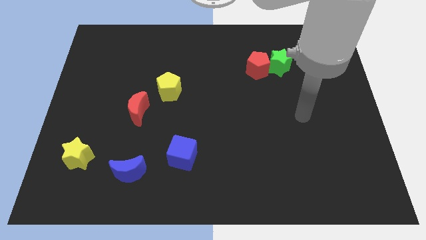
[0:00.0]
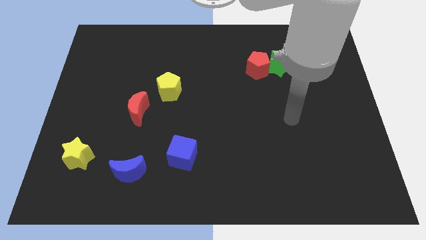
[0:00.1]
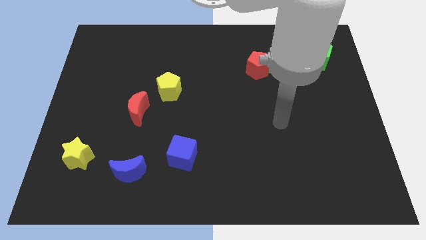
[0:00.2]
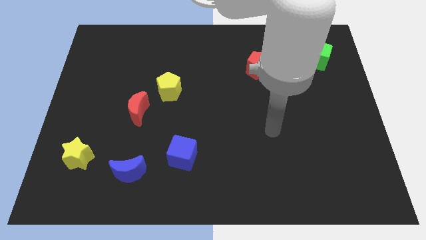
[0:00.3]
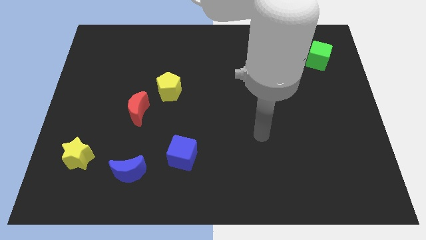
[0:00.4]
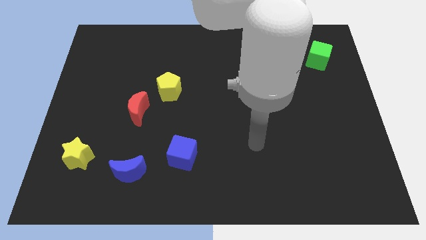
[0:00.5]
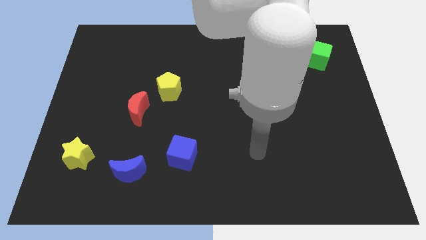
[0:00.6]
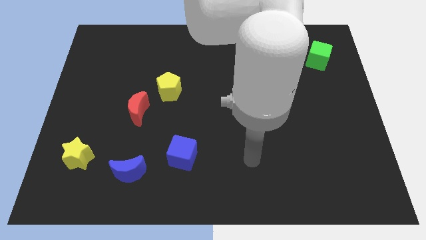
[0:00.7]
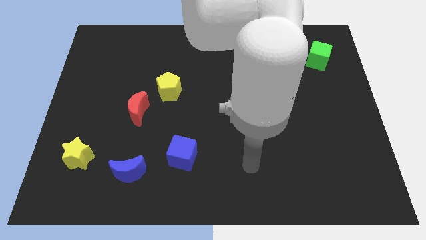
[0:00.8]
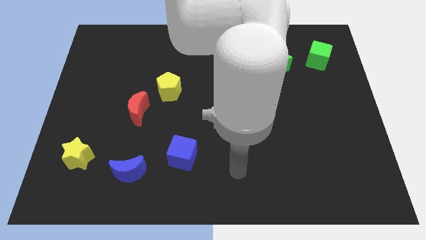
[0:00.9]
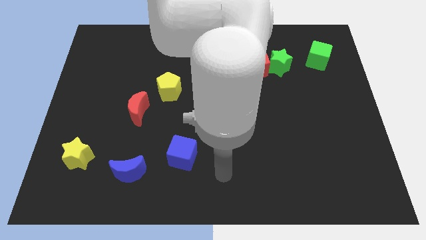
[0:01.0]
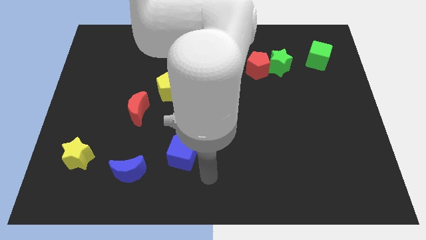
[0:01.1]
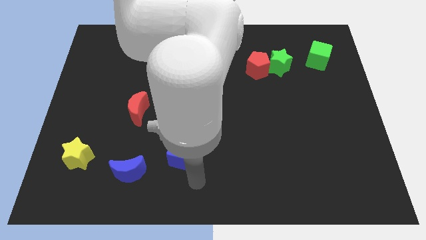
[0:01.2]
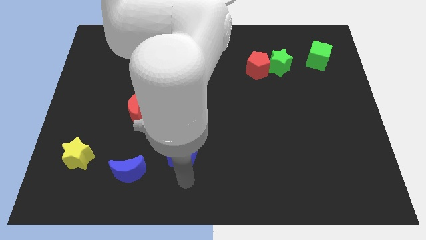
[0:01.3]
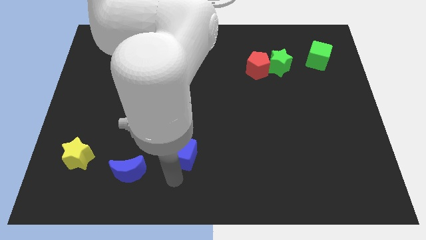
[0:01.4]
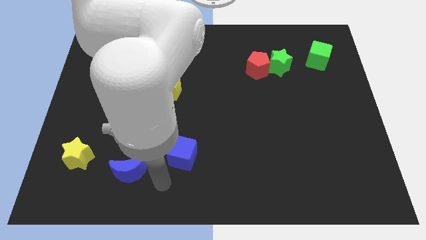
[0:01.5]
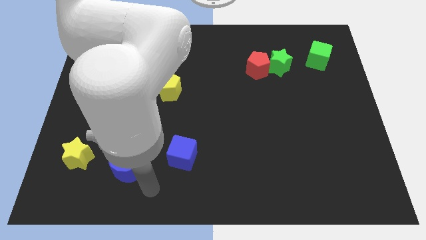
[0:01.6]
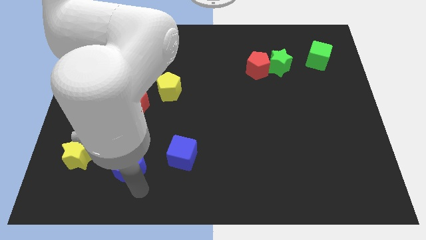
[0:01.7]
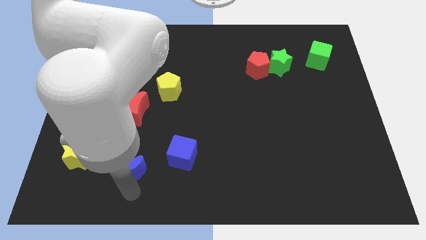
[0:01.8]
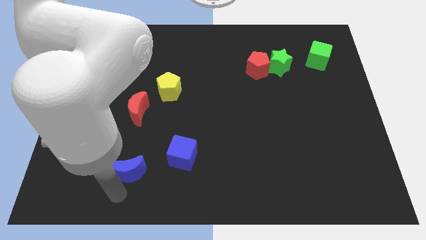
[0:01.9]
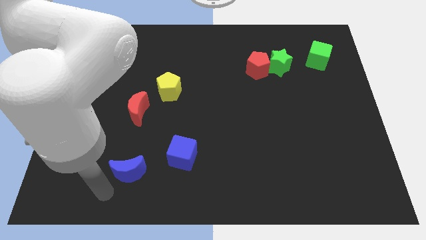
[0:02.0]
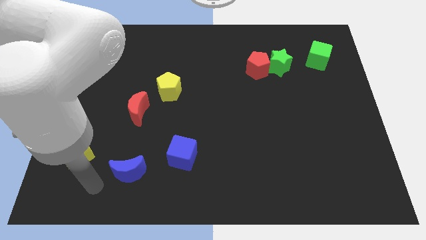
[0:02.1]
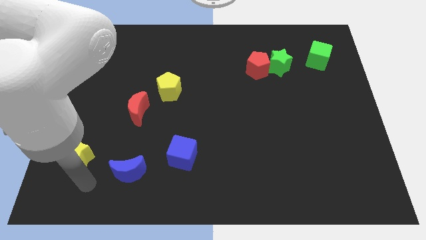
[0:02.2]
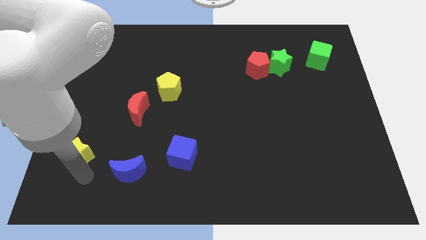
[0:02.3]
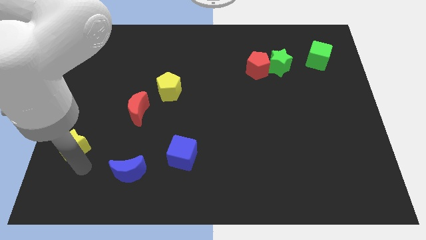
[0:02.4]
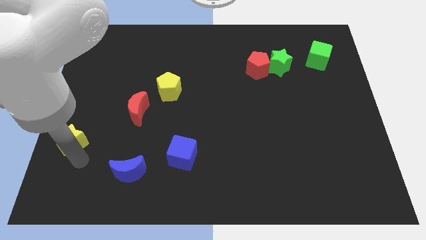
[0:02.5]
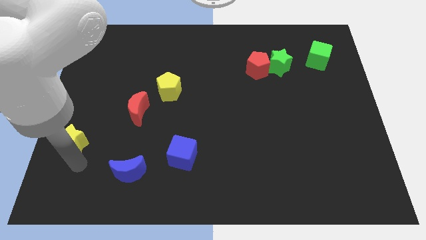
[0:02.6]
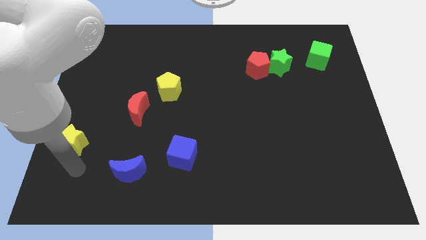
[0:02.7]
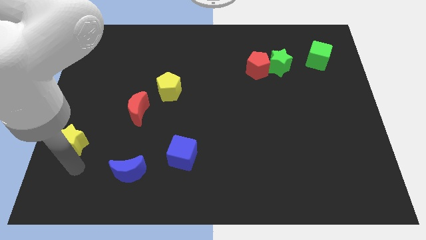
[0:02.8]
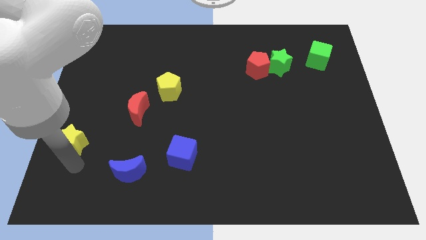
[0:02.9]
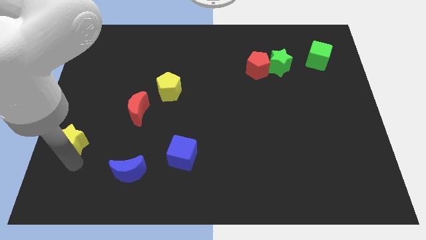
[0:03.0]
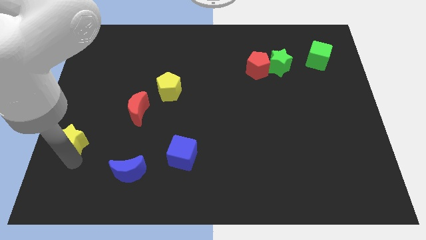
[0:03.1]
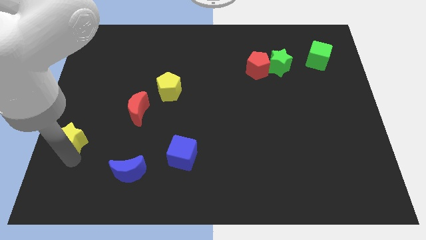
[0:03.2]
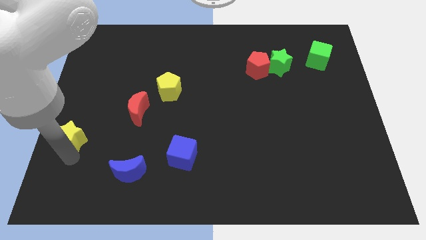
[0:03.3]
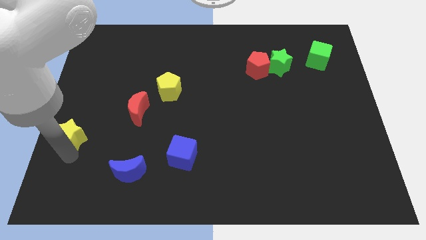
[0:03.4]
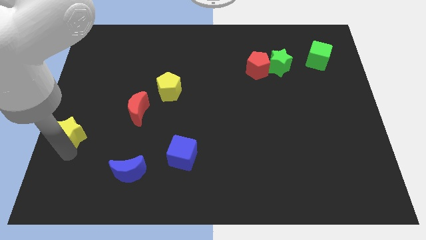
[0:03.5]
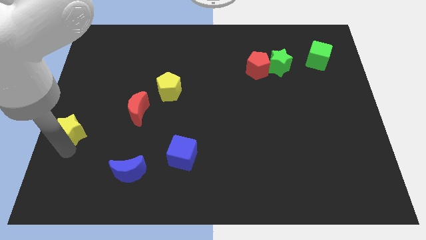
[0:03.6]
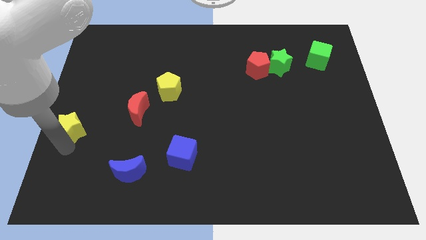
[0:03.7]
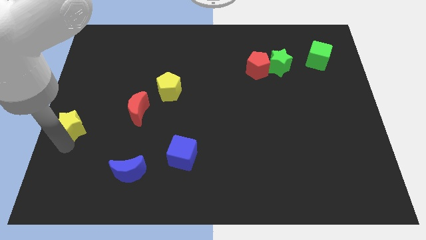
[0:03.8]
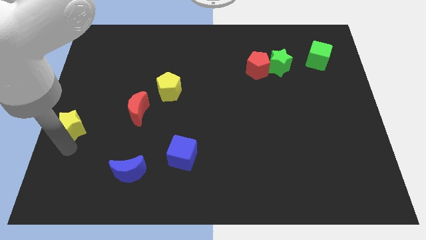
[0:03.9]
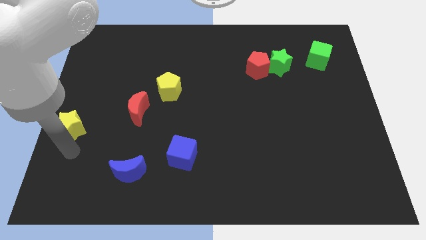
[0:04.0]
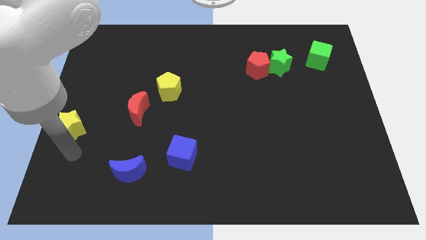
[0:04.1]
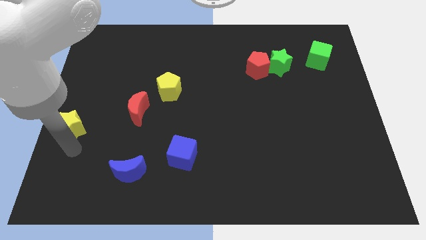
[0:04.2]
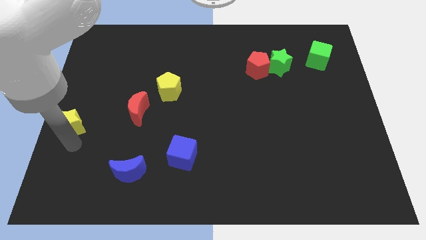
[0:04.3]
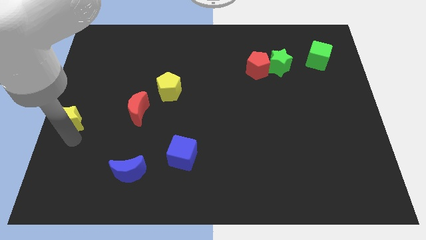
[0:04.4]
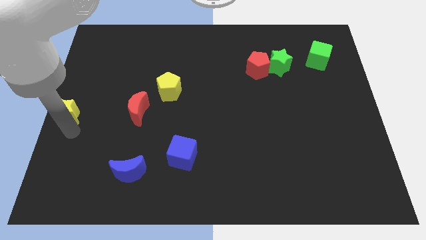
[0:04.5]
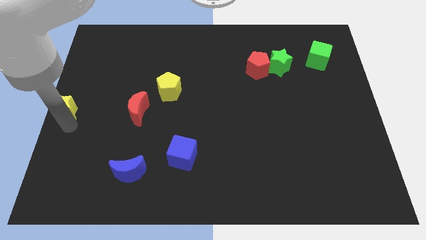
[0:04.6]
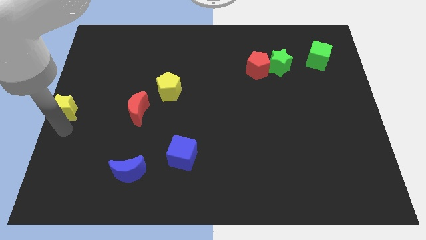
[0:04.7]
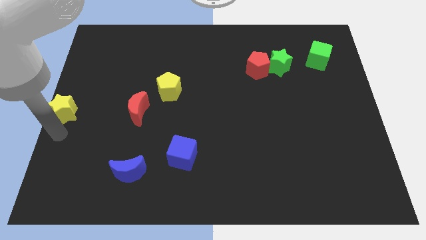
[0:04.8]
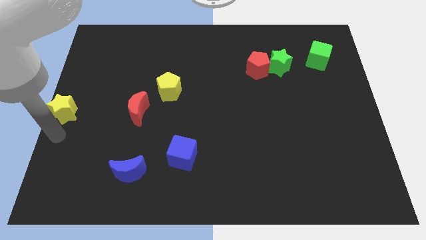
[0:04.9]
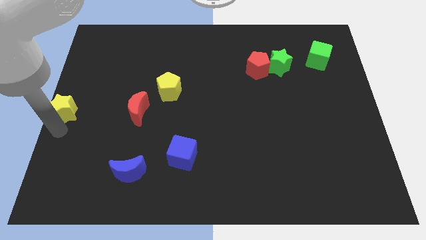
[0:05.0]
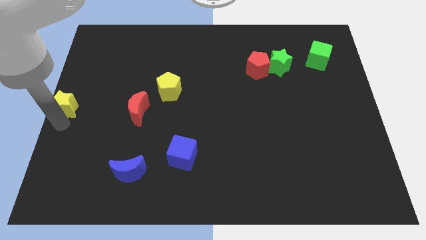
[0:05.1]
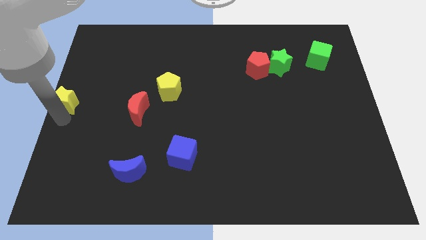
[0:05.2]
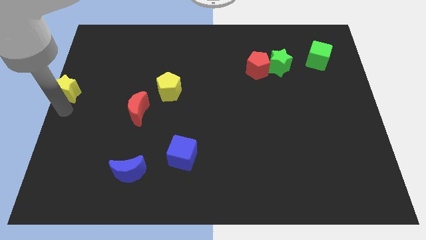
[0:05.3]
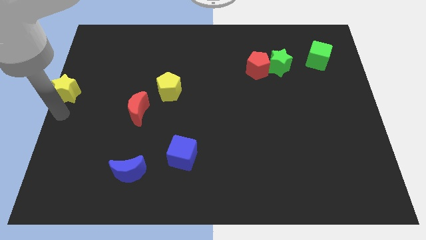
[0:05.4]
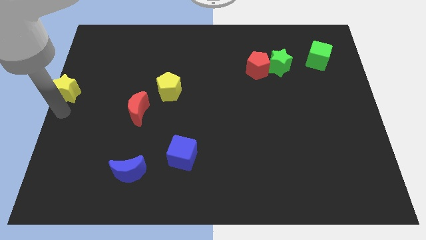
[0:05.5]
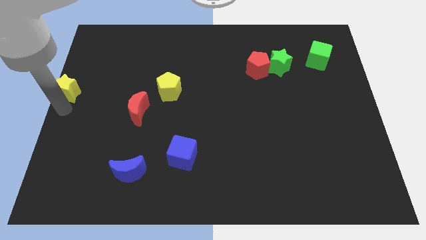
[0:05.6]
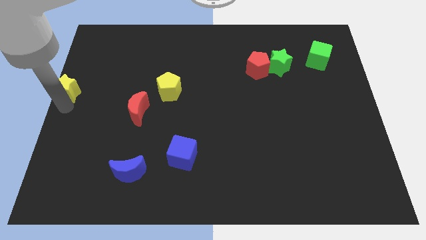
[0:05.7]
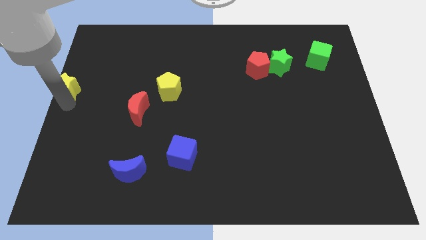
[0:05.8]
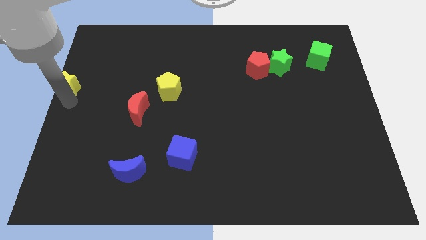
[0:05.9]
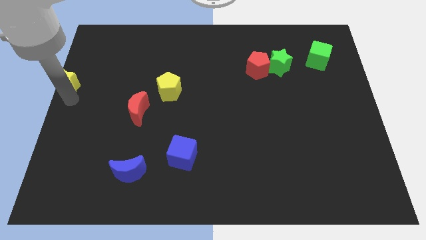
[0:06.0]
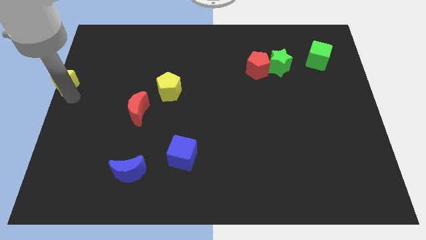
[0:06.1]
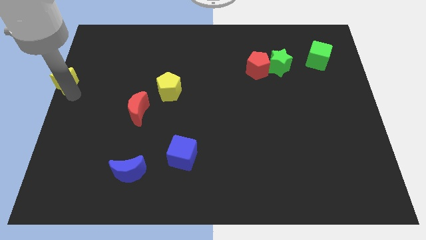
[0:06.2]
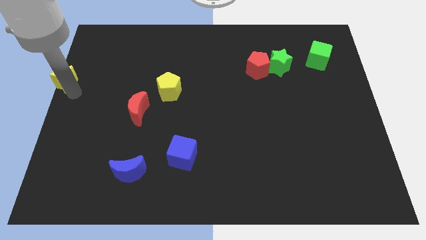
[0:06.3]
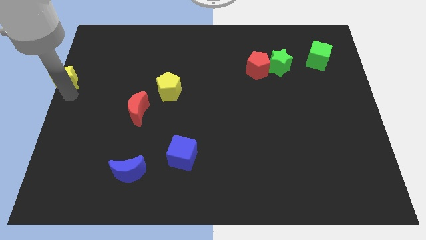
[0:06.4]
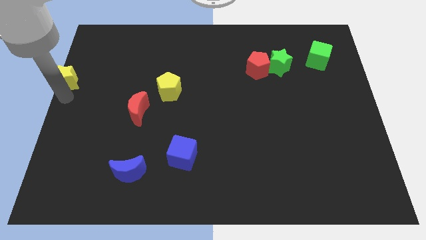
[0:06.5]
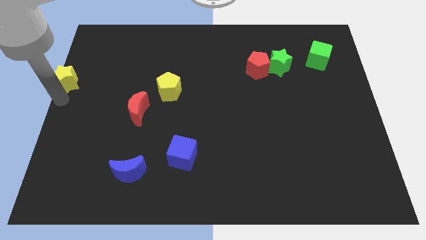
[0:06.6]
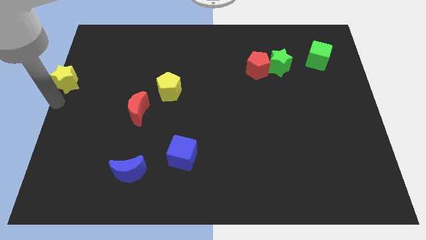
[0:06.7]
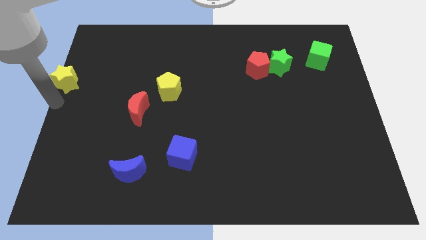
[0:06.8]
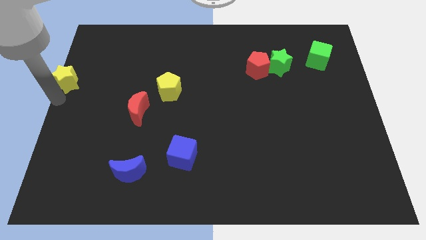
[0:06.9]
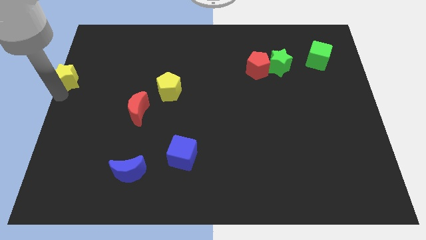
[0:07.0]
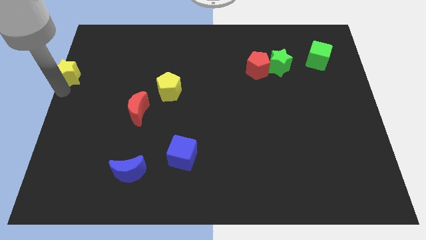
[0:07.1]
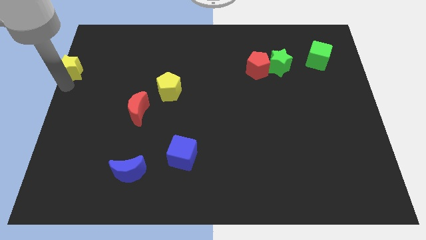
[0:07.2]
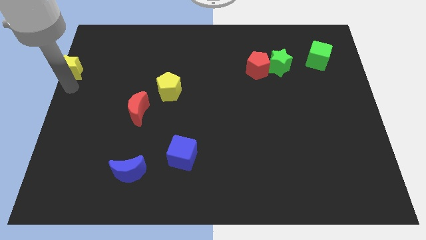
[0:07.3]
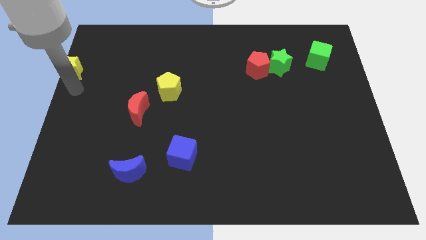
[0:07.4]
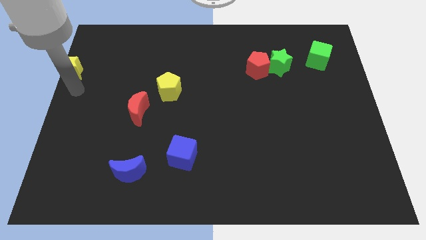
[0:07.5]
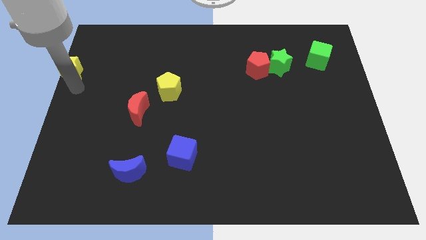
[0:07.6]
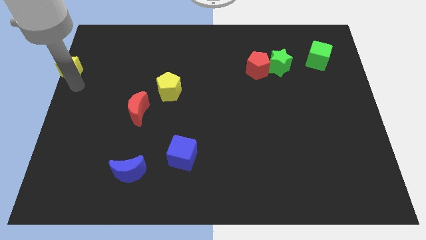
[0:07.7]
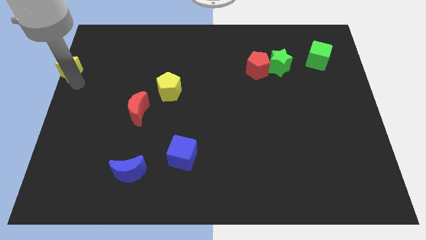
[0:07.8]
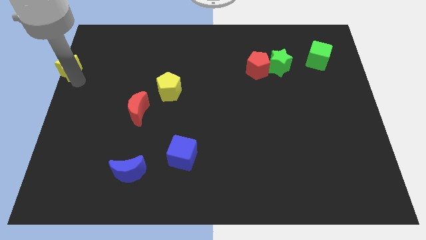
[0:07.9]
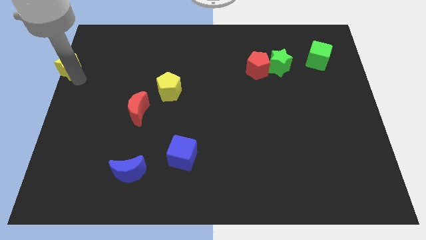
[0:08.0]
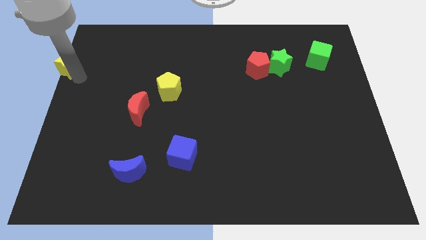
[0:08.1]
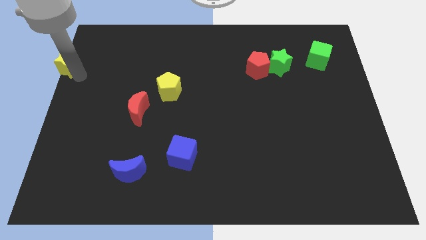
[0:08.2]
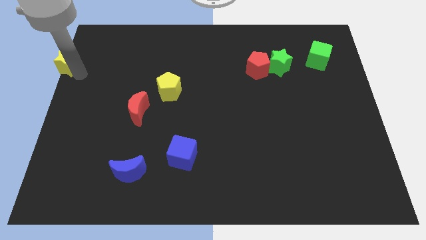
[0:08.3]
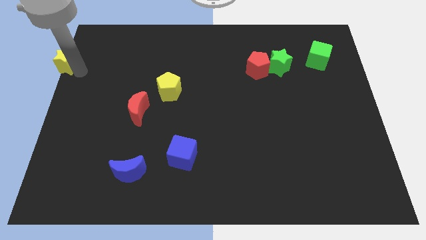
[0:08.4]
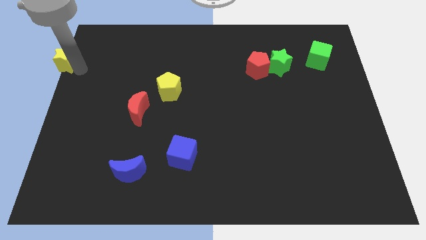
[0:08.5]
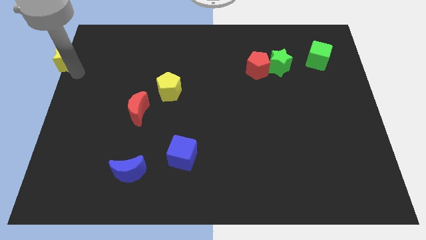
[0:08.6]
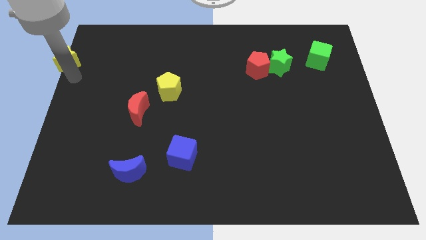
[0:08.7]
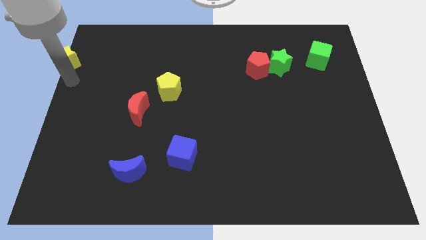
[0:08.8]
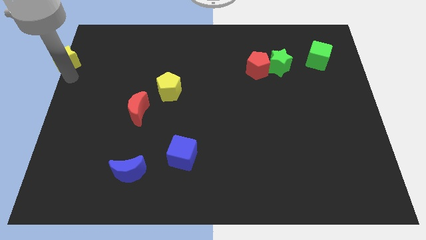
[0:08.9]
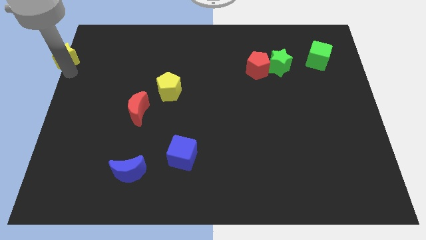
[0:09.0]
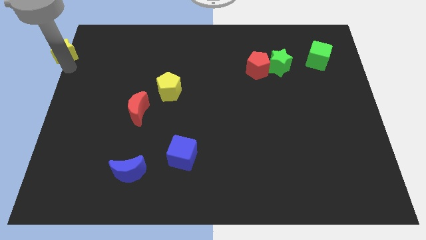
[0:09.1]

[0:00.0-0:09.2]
push the yellow star to the top left
